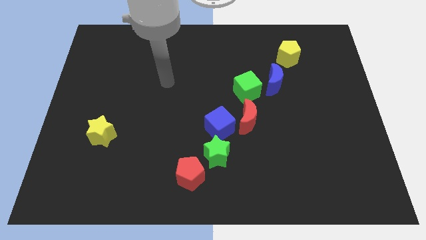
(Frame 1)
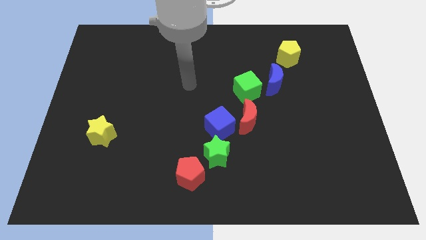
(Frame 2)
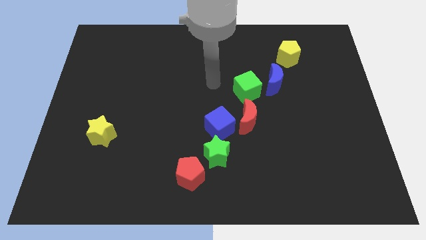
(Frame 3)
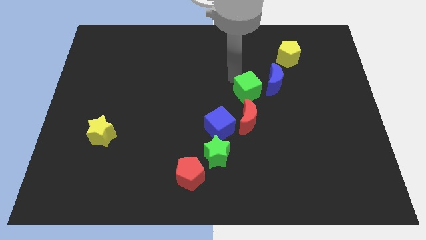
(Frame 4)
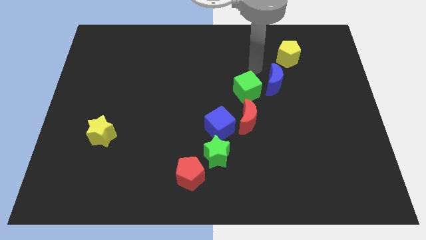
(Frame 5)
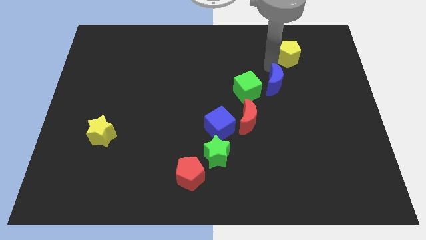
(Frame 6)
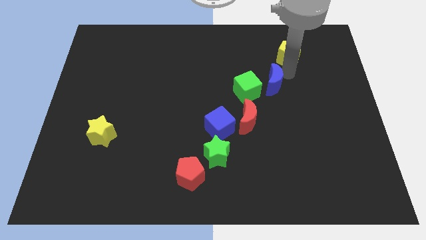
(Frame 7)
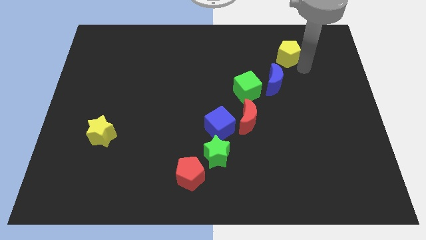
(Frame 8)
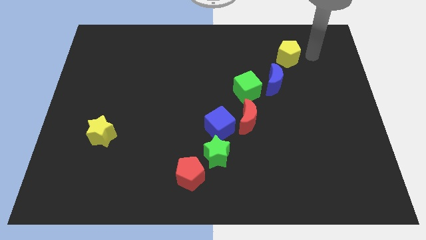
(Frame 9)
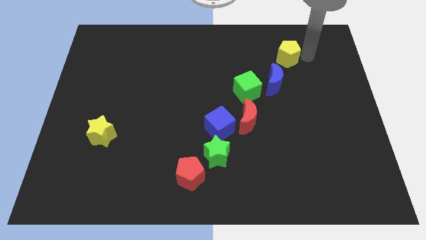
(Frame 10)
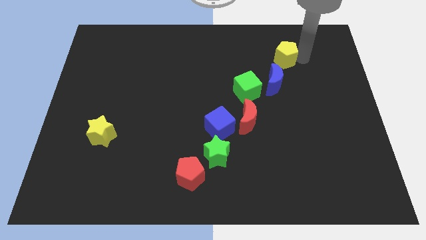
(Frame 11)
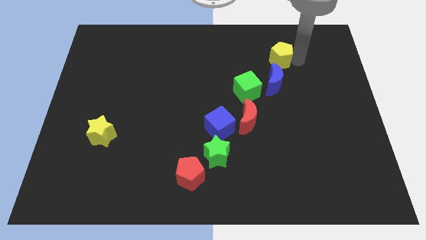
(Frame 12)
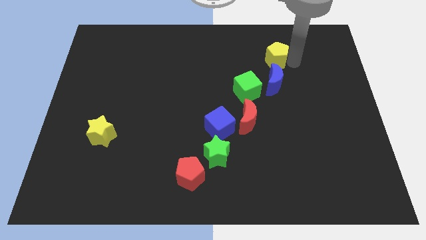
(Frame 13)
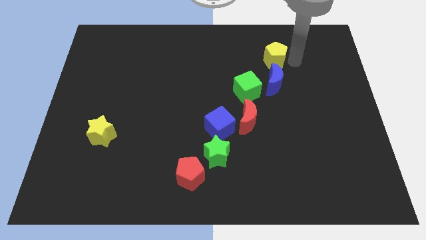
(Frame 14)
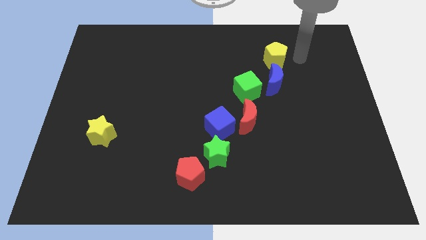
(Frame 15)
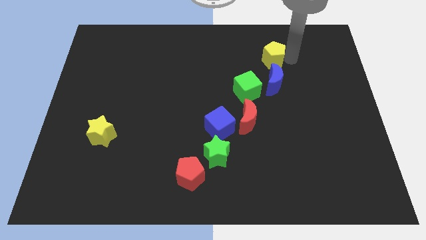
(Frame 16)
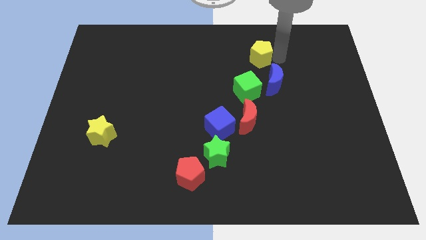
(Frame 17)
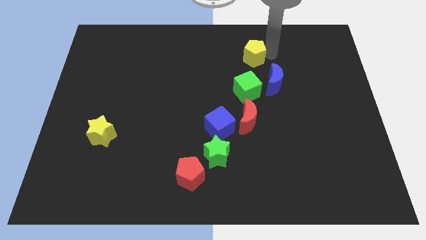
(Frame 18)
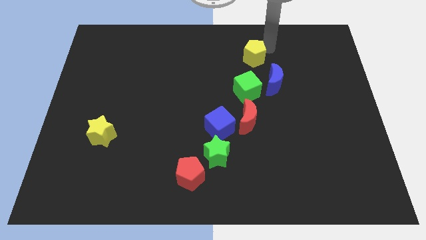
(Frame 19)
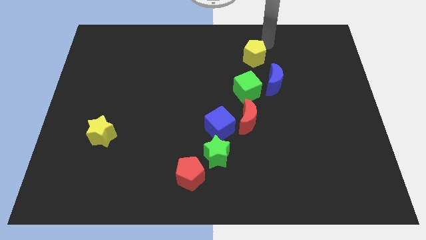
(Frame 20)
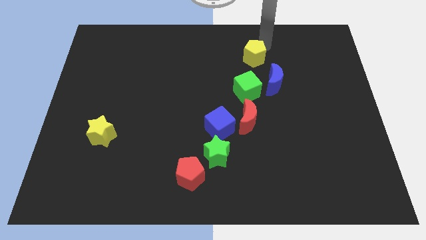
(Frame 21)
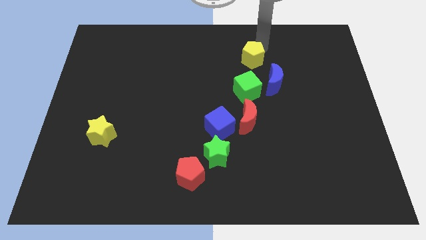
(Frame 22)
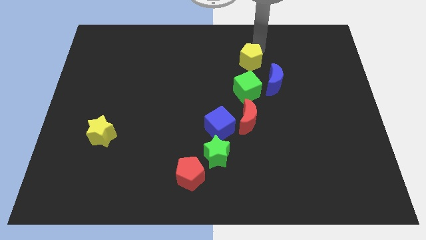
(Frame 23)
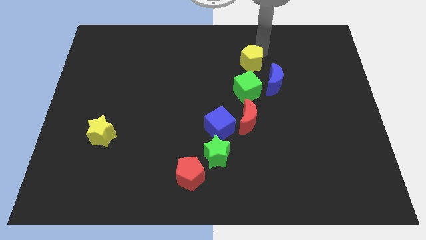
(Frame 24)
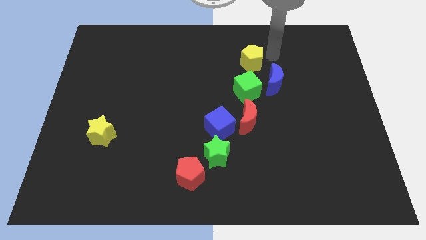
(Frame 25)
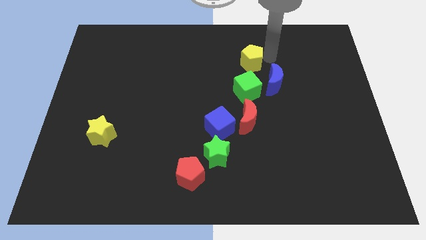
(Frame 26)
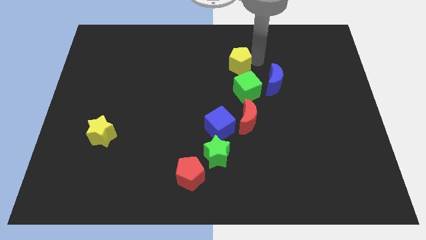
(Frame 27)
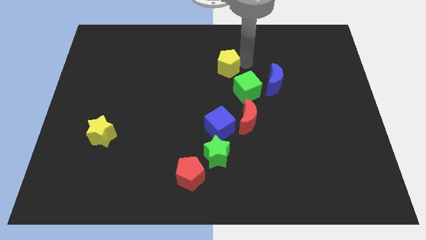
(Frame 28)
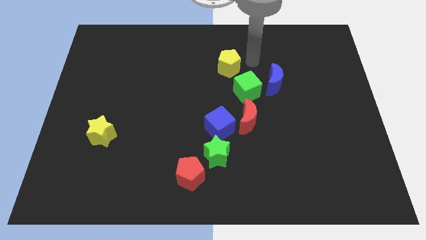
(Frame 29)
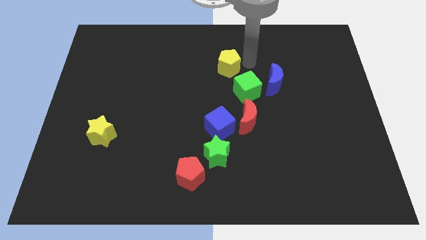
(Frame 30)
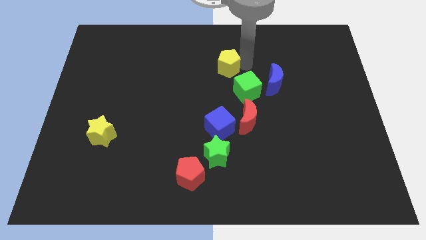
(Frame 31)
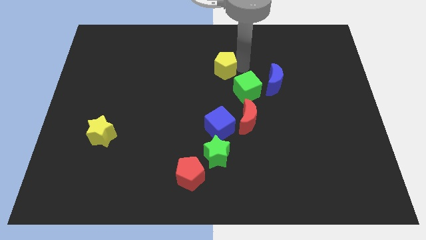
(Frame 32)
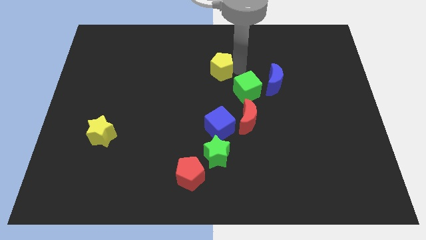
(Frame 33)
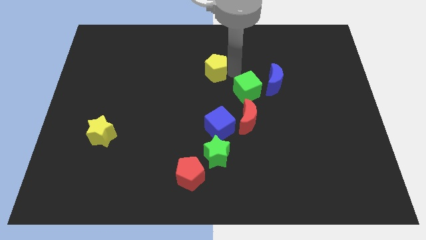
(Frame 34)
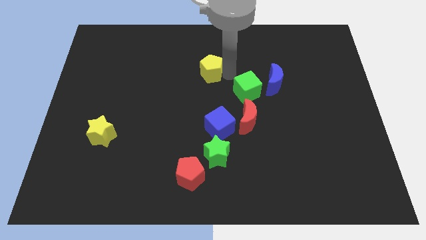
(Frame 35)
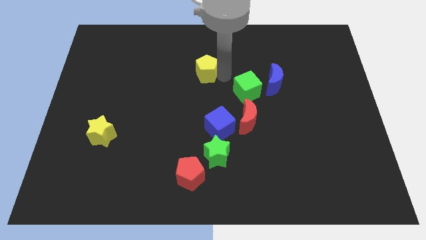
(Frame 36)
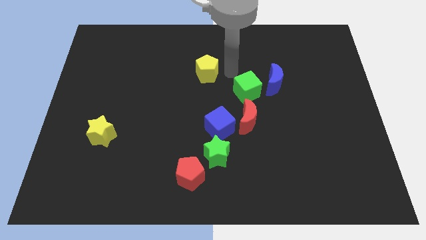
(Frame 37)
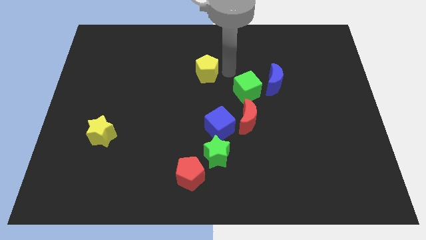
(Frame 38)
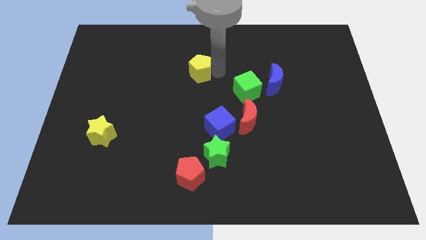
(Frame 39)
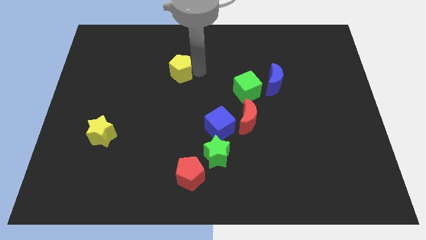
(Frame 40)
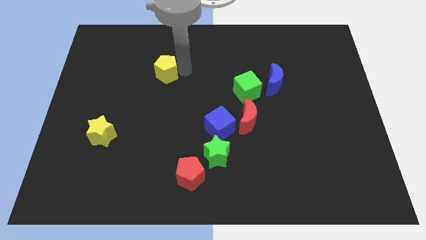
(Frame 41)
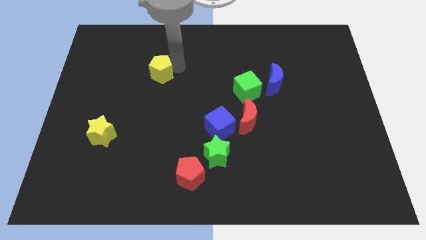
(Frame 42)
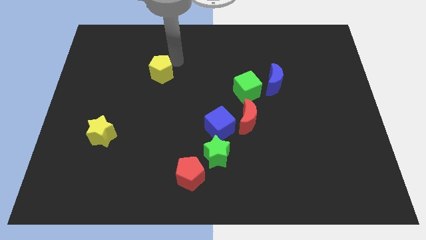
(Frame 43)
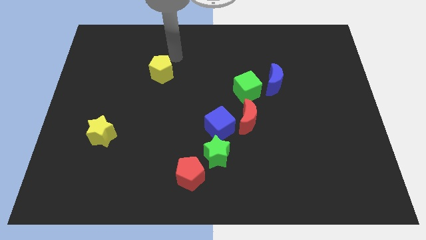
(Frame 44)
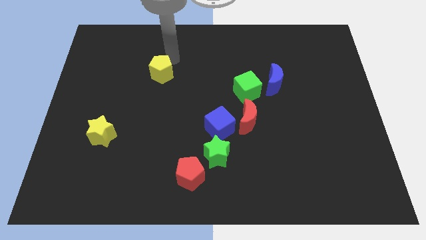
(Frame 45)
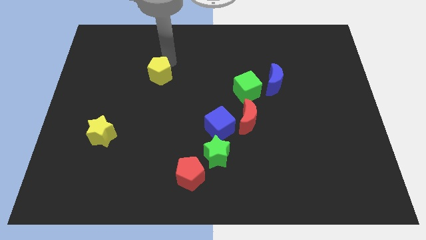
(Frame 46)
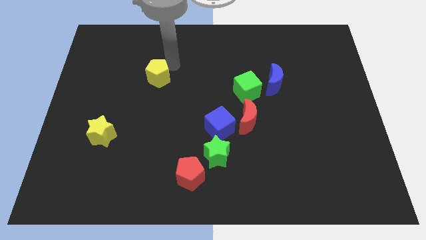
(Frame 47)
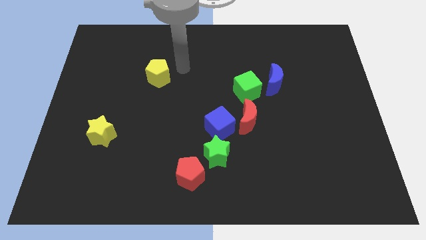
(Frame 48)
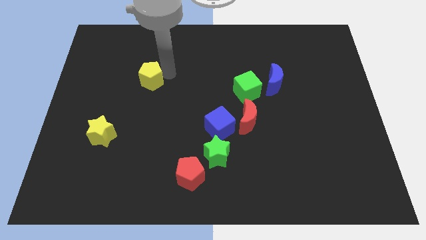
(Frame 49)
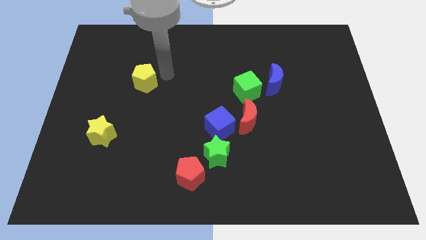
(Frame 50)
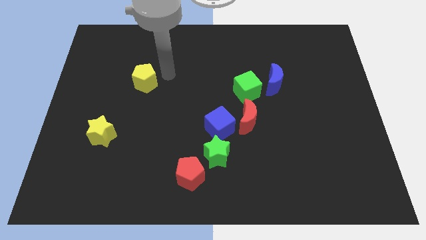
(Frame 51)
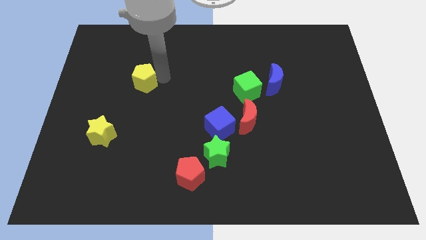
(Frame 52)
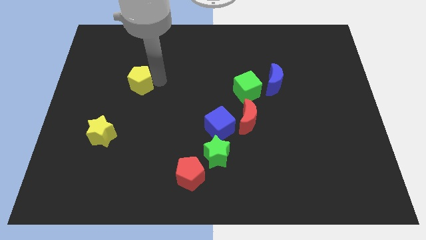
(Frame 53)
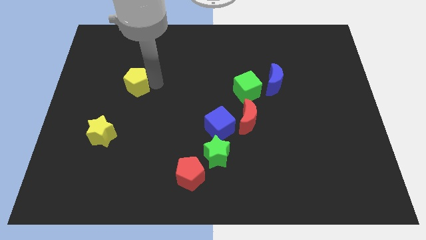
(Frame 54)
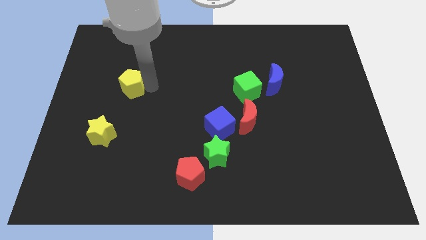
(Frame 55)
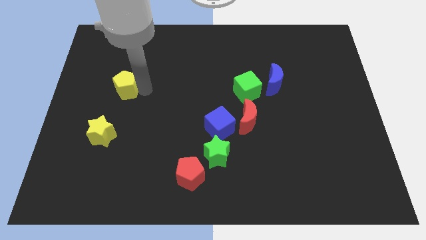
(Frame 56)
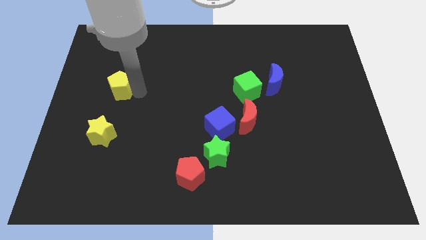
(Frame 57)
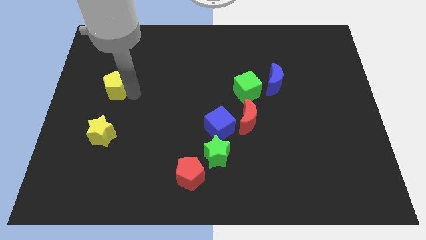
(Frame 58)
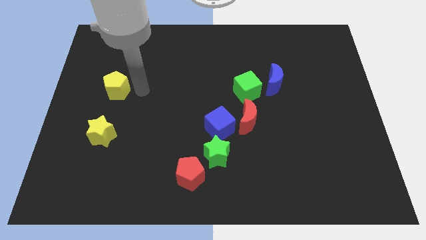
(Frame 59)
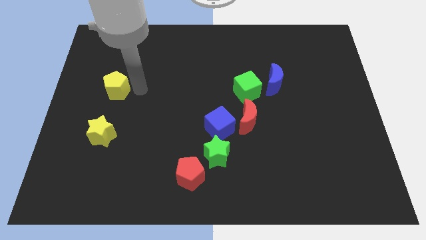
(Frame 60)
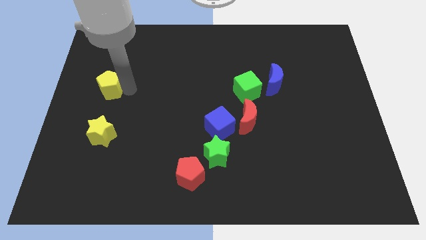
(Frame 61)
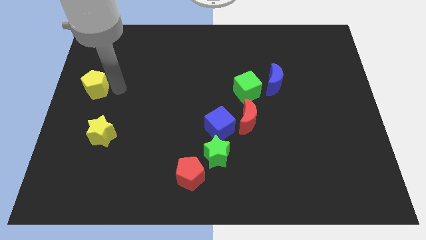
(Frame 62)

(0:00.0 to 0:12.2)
move the yellow pentagon to the left side
